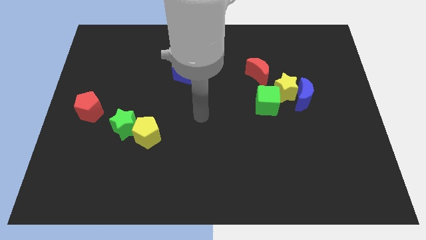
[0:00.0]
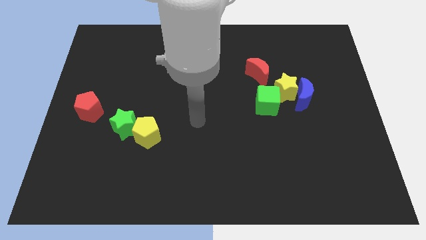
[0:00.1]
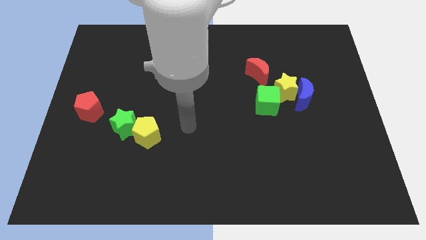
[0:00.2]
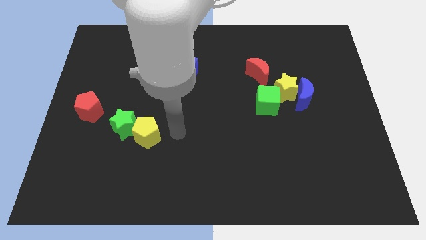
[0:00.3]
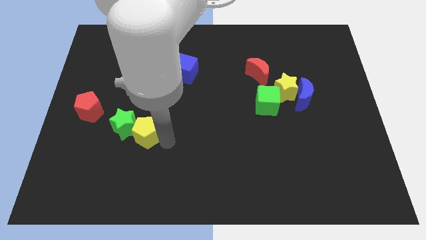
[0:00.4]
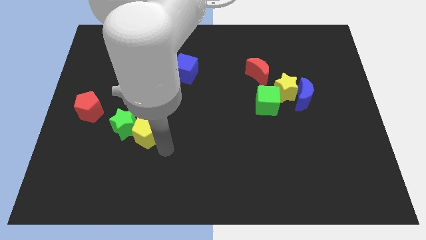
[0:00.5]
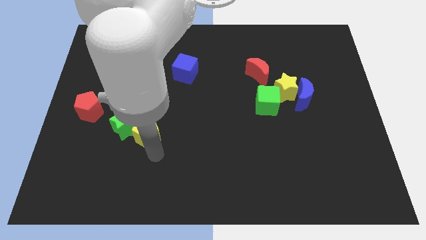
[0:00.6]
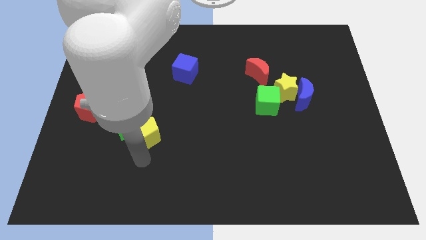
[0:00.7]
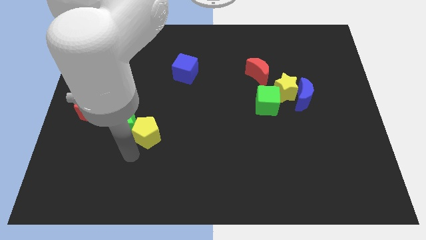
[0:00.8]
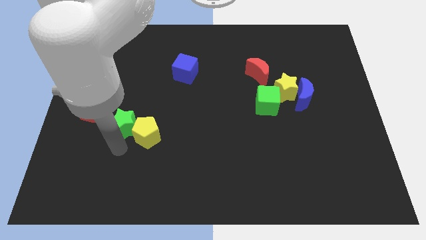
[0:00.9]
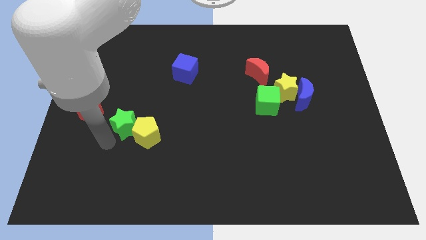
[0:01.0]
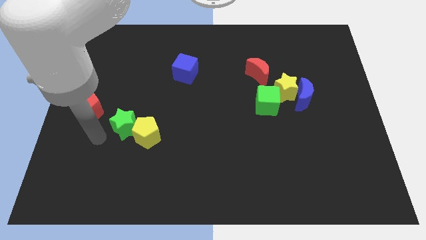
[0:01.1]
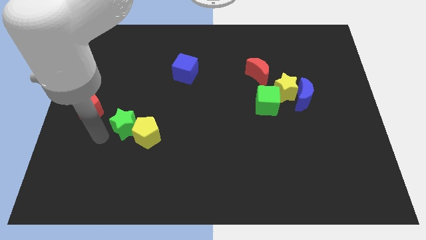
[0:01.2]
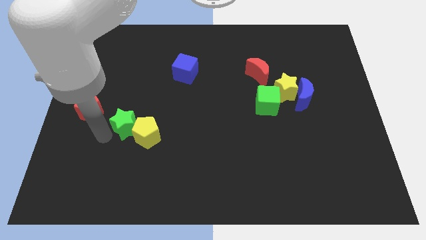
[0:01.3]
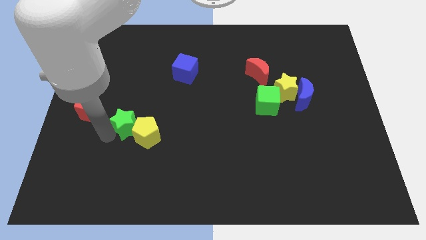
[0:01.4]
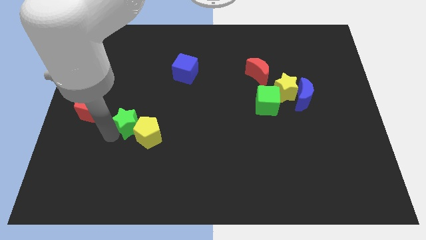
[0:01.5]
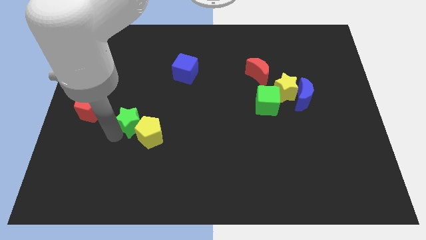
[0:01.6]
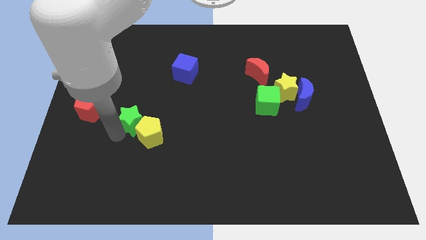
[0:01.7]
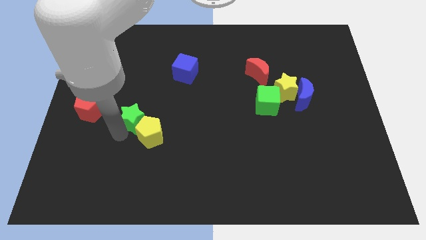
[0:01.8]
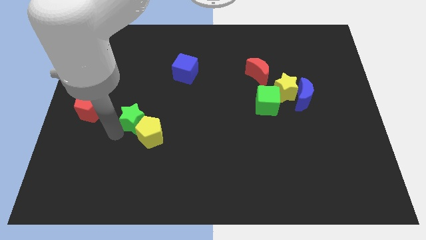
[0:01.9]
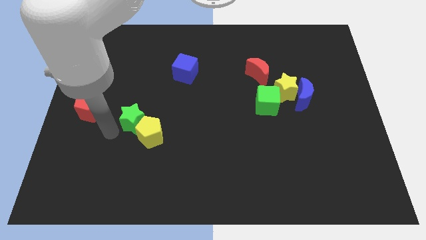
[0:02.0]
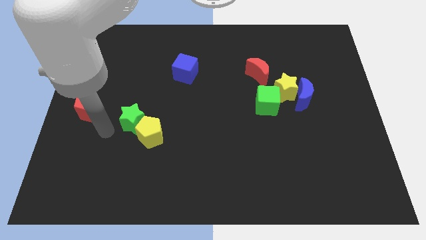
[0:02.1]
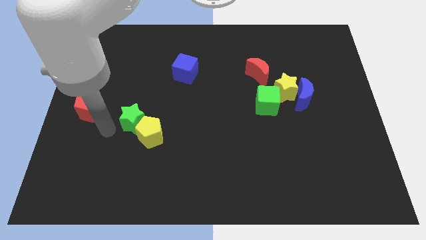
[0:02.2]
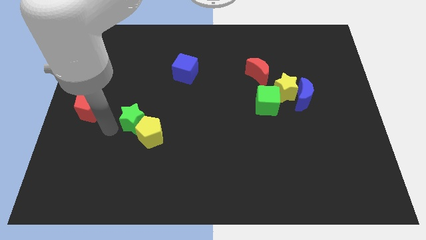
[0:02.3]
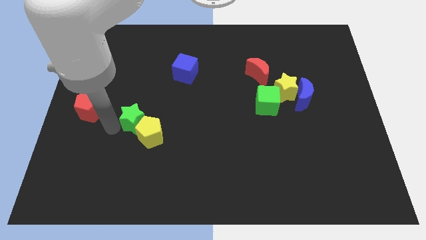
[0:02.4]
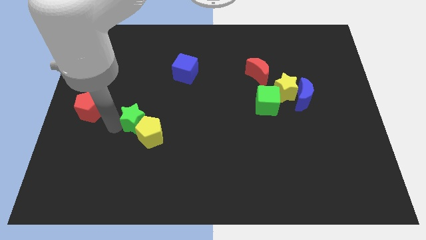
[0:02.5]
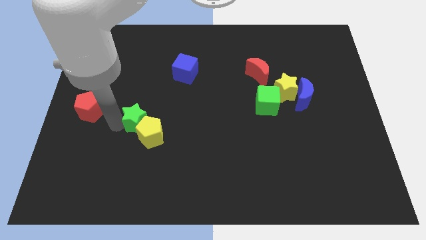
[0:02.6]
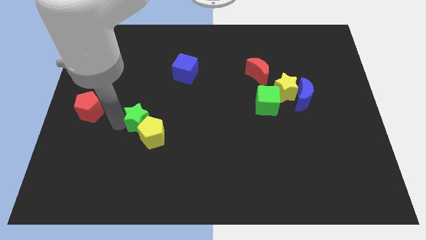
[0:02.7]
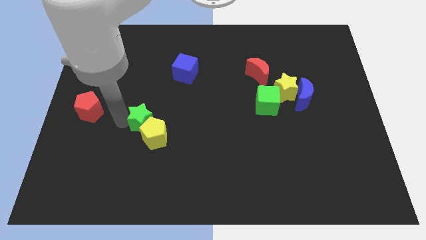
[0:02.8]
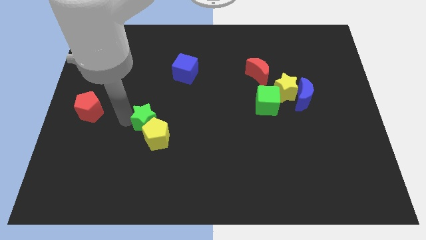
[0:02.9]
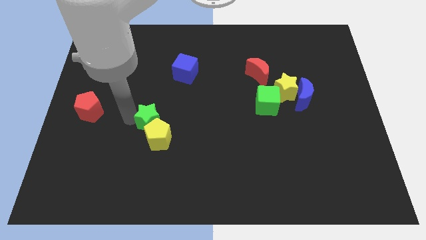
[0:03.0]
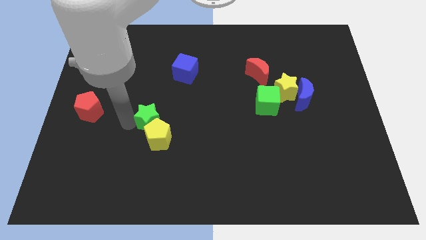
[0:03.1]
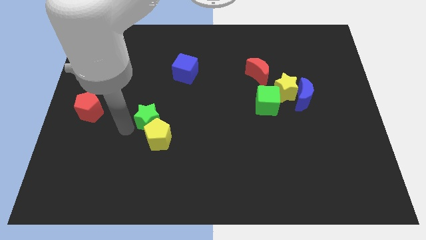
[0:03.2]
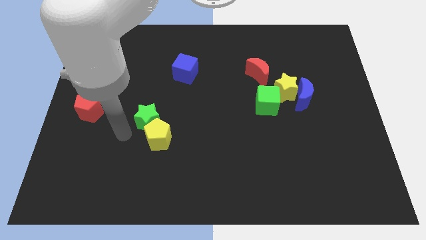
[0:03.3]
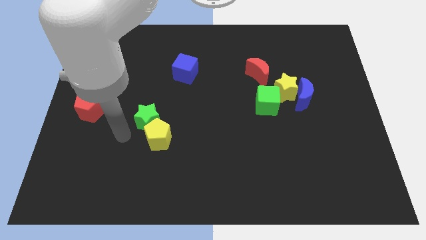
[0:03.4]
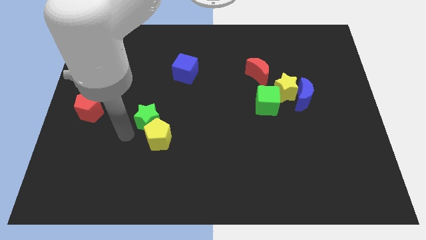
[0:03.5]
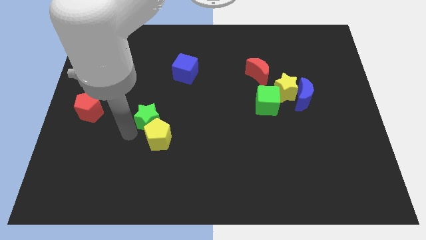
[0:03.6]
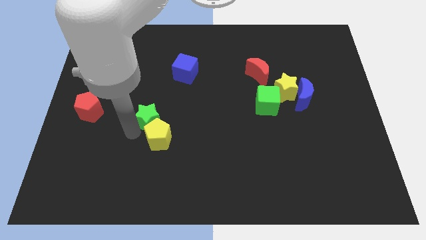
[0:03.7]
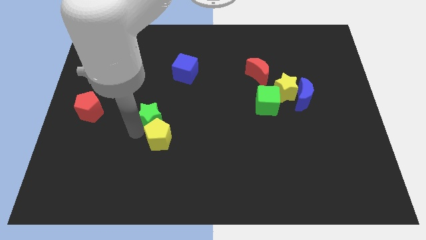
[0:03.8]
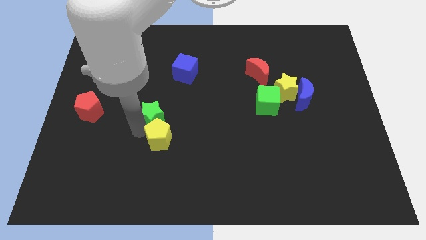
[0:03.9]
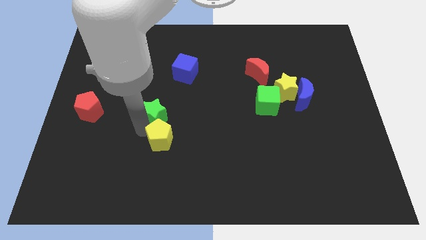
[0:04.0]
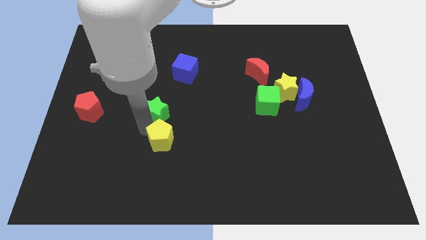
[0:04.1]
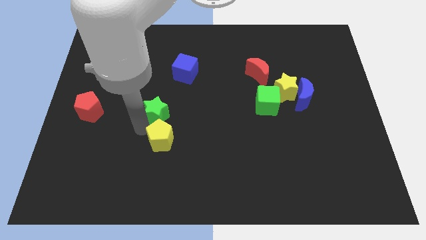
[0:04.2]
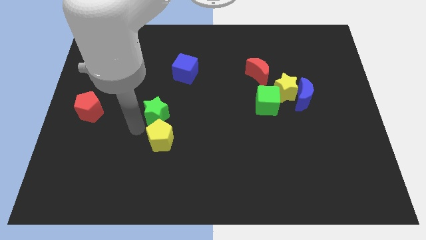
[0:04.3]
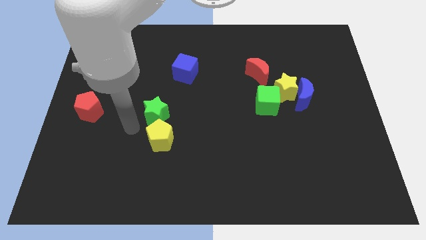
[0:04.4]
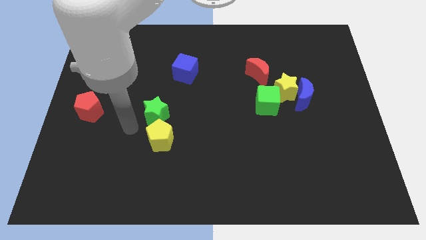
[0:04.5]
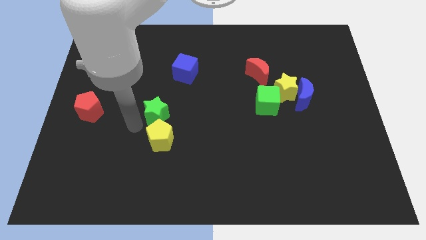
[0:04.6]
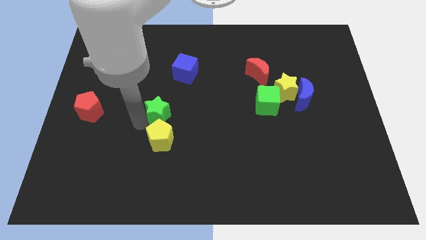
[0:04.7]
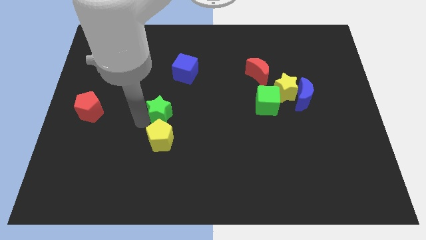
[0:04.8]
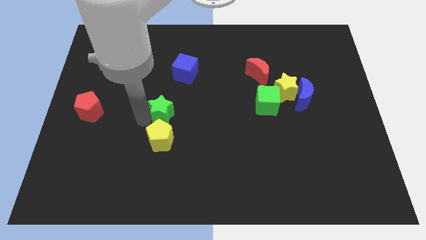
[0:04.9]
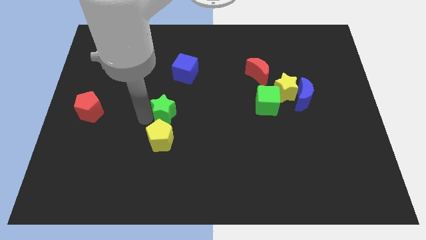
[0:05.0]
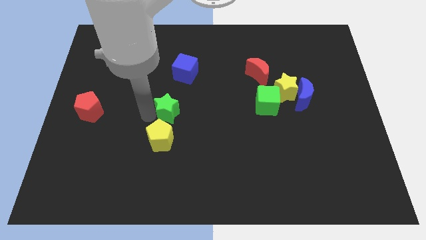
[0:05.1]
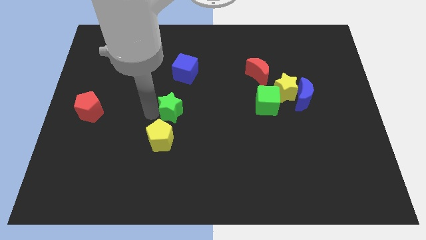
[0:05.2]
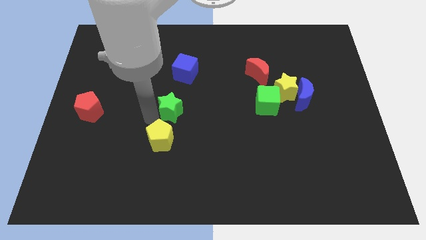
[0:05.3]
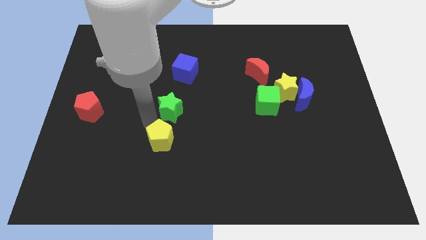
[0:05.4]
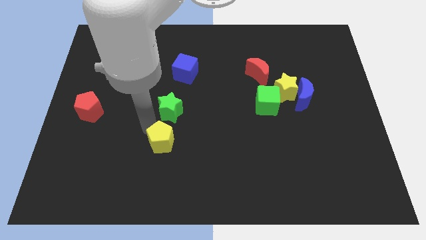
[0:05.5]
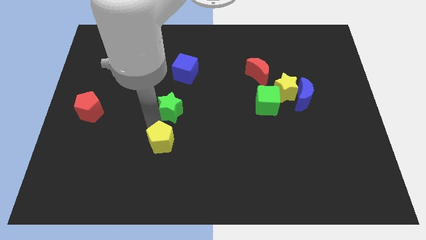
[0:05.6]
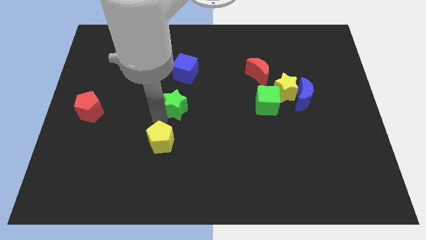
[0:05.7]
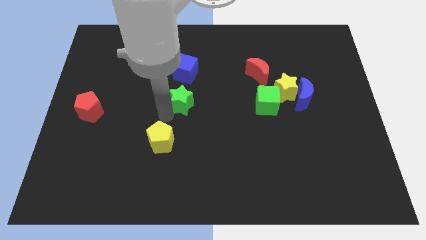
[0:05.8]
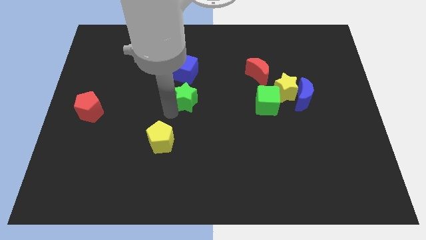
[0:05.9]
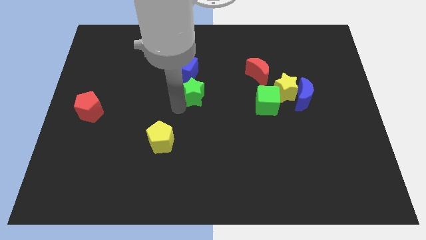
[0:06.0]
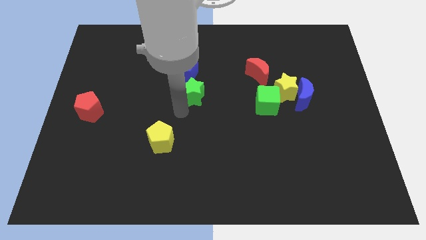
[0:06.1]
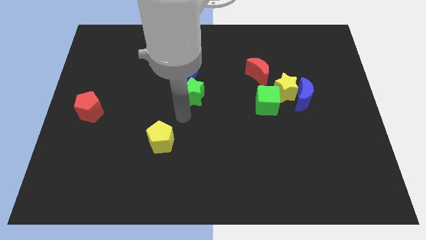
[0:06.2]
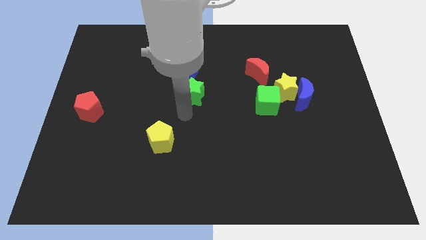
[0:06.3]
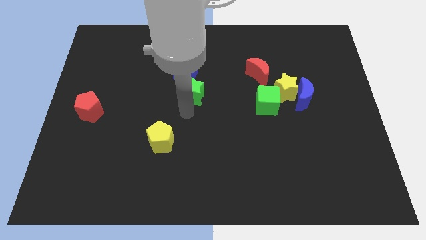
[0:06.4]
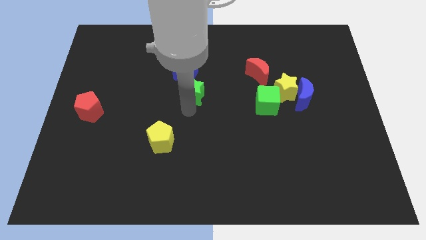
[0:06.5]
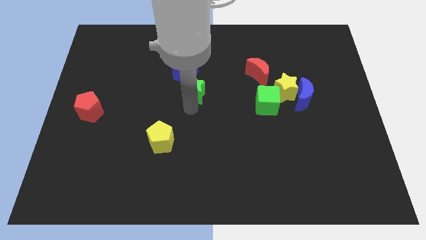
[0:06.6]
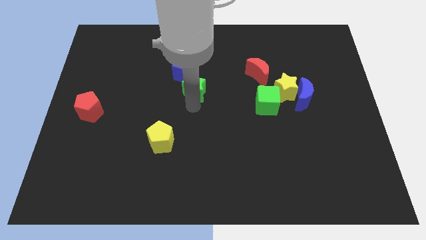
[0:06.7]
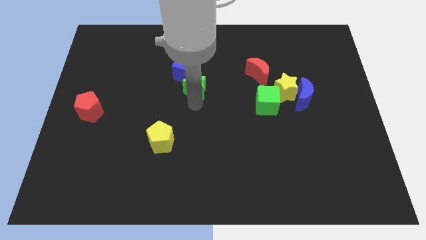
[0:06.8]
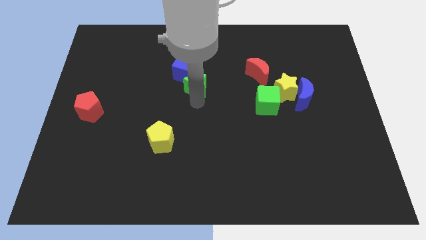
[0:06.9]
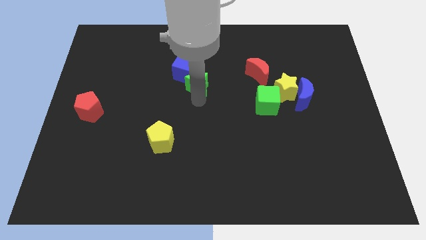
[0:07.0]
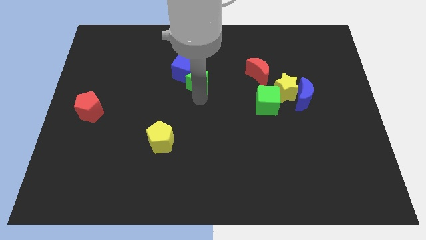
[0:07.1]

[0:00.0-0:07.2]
slide the green star diagonally up and right

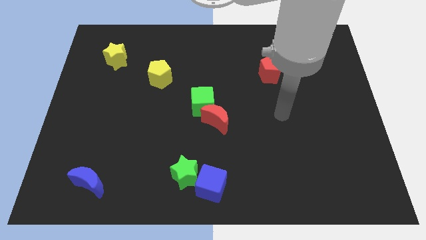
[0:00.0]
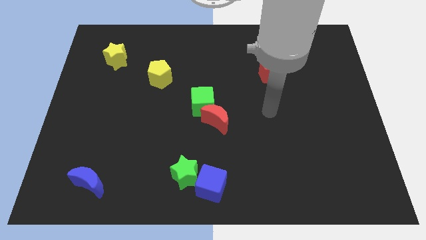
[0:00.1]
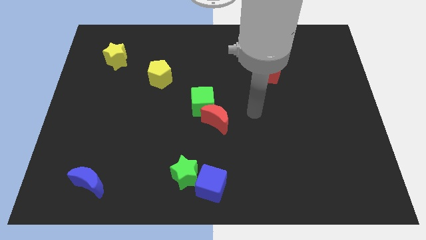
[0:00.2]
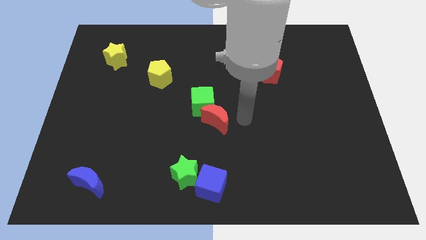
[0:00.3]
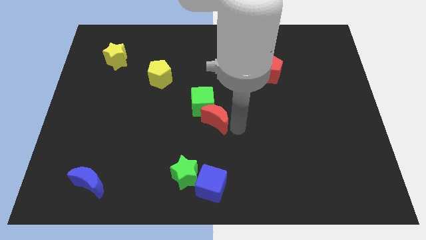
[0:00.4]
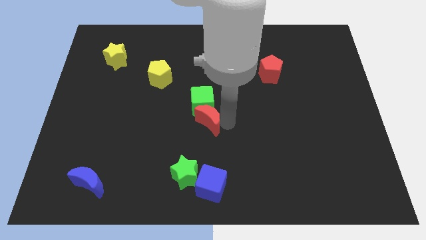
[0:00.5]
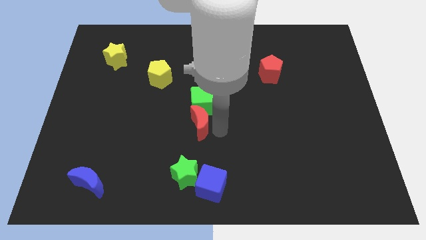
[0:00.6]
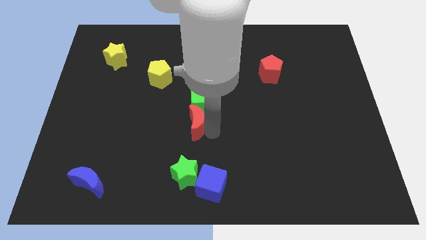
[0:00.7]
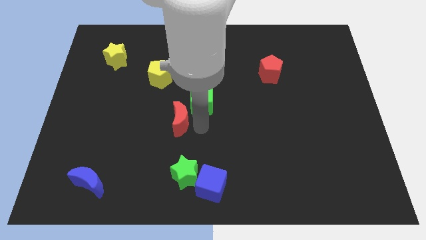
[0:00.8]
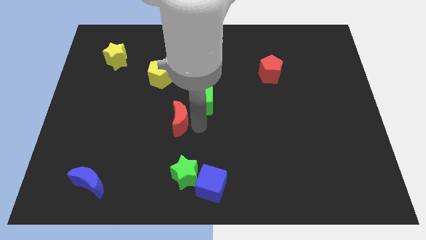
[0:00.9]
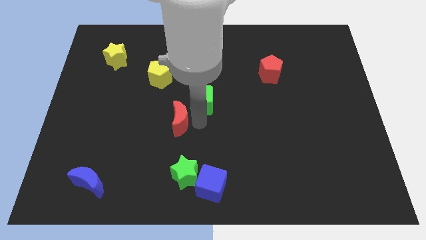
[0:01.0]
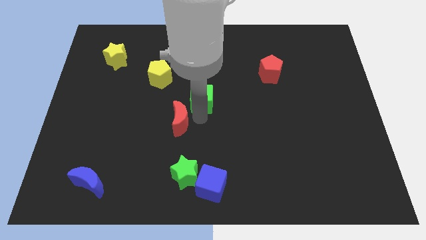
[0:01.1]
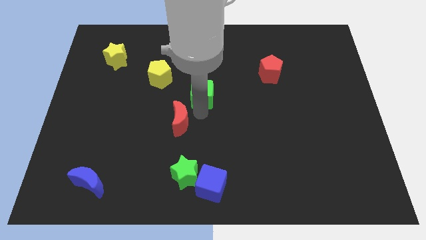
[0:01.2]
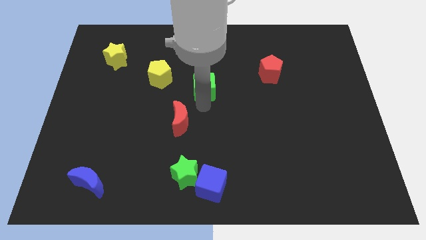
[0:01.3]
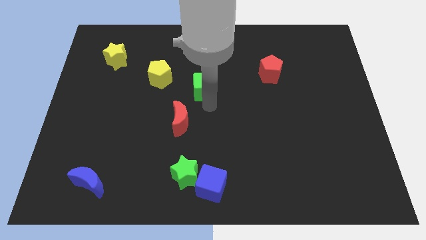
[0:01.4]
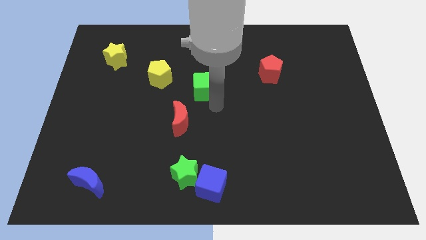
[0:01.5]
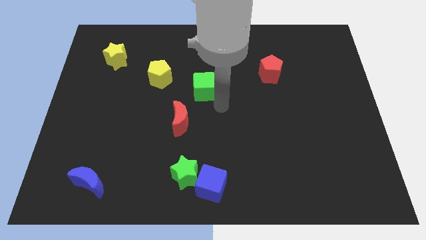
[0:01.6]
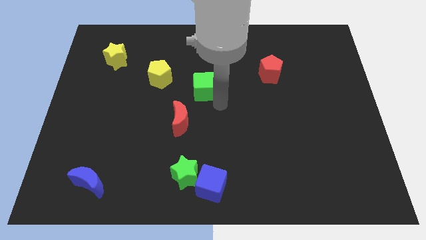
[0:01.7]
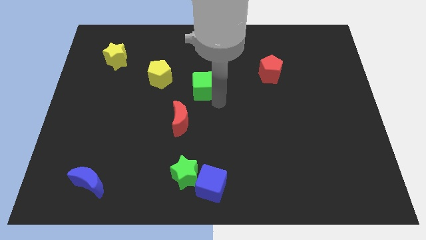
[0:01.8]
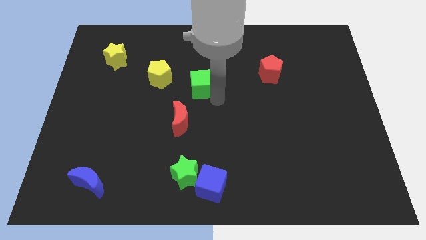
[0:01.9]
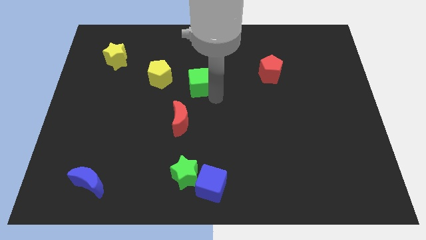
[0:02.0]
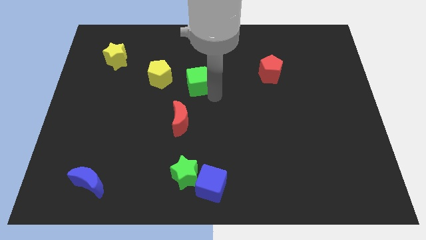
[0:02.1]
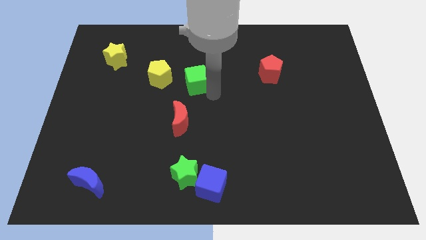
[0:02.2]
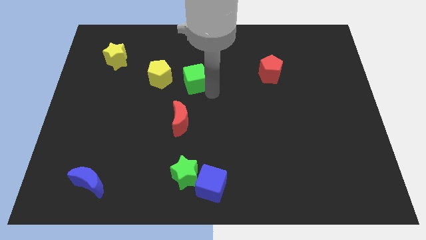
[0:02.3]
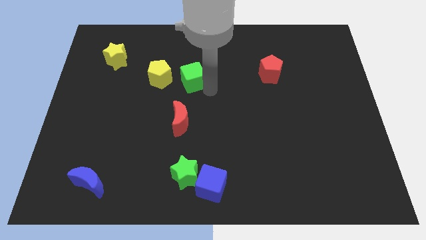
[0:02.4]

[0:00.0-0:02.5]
move the green cube up and left a little
